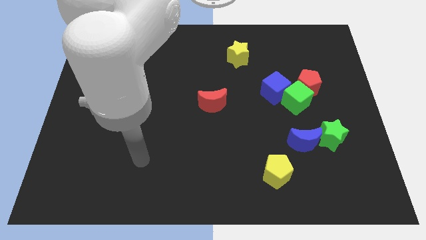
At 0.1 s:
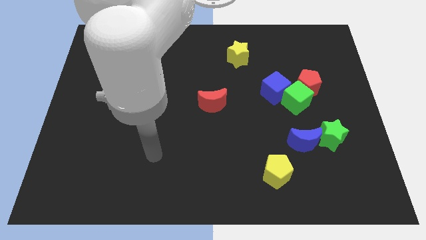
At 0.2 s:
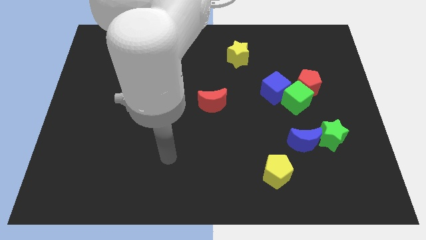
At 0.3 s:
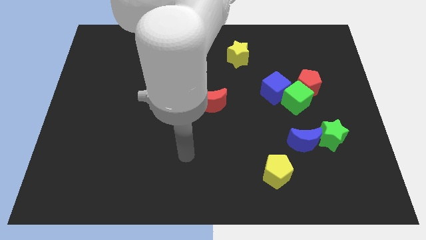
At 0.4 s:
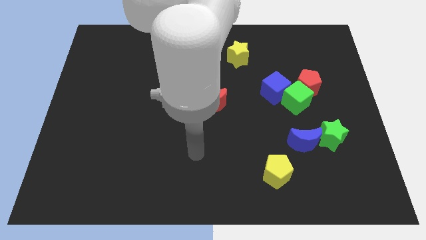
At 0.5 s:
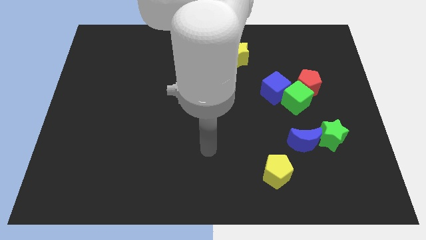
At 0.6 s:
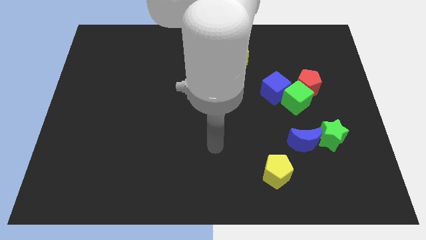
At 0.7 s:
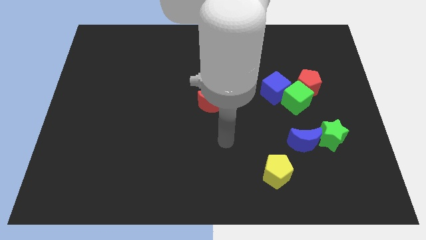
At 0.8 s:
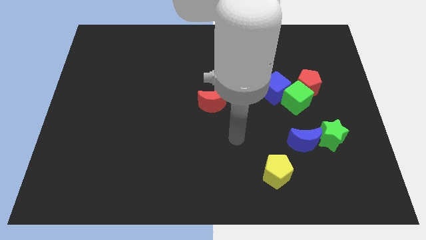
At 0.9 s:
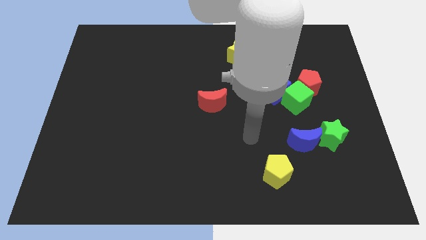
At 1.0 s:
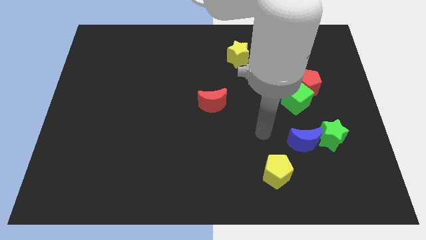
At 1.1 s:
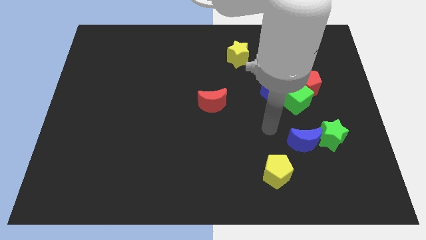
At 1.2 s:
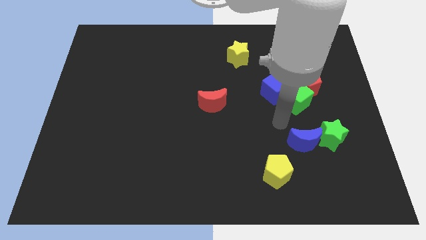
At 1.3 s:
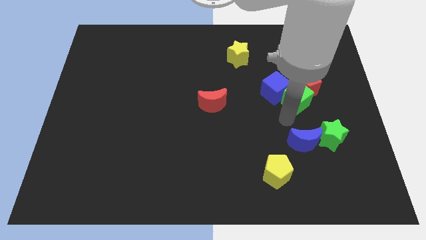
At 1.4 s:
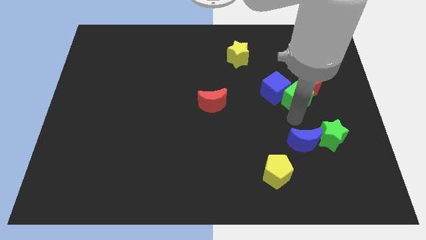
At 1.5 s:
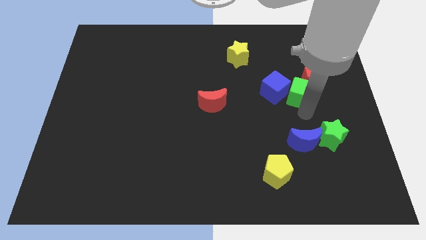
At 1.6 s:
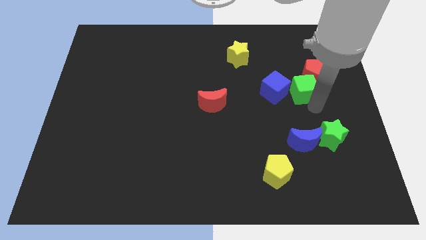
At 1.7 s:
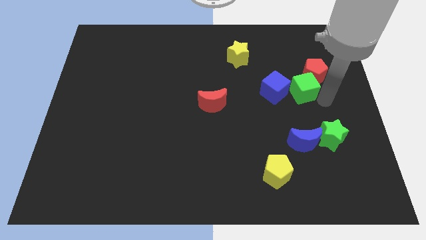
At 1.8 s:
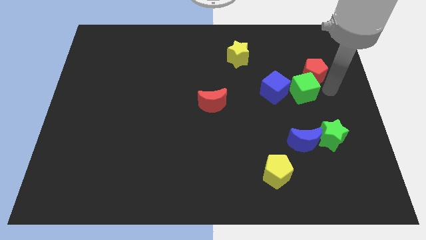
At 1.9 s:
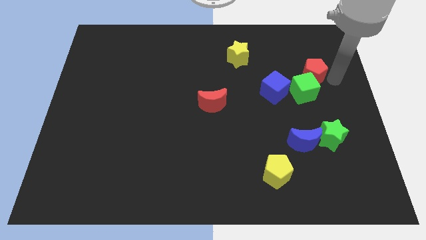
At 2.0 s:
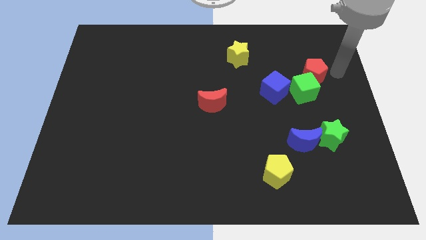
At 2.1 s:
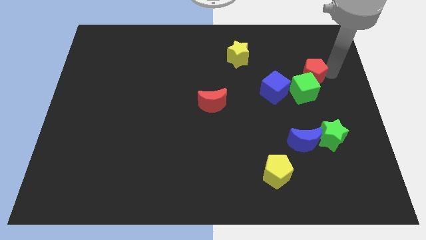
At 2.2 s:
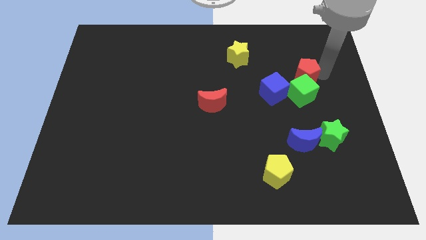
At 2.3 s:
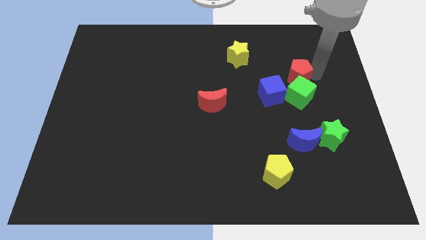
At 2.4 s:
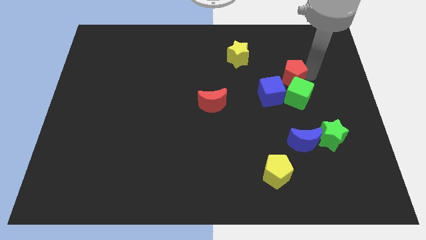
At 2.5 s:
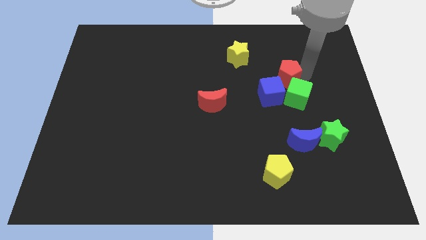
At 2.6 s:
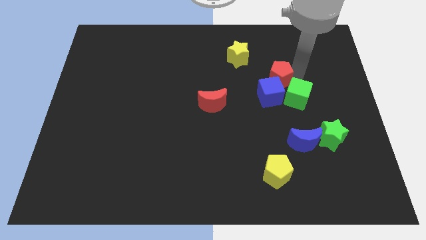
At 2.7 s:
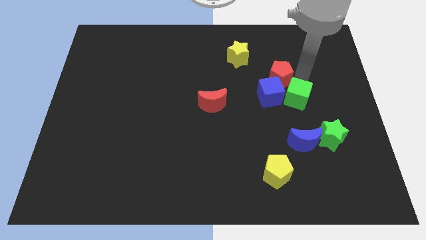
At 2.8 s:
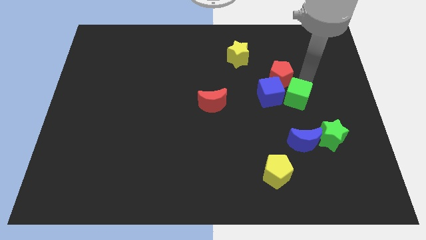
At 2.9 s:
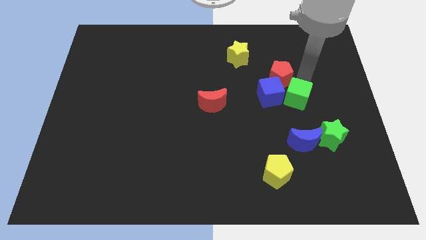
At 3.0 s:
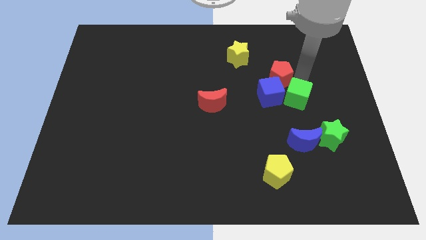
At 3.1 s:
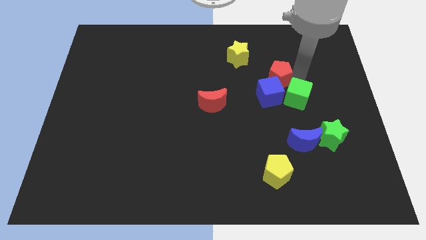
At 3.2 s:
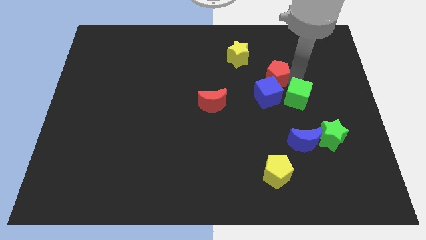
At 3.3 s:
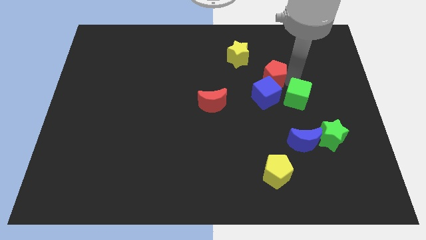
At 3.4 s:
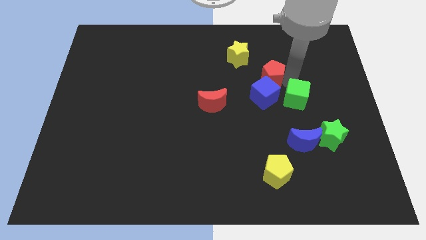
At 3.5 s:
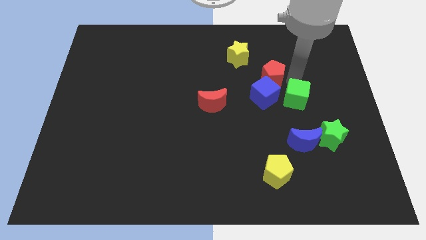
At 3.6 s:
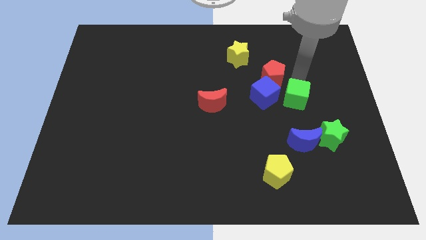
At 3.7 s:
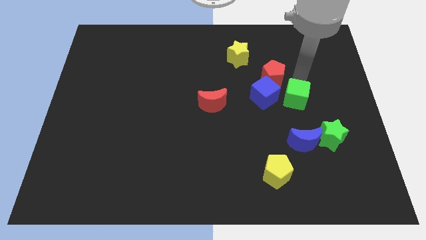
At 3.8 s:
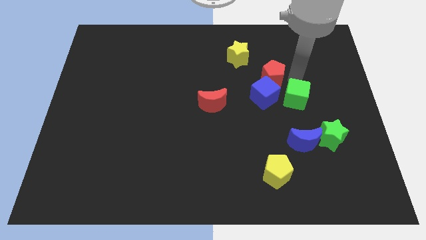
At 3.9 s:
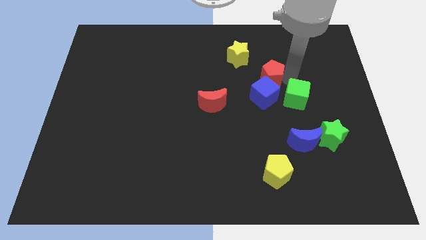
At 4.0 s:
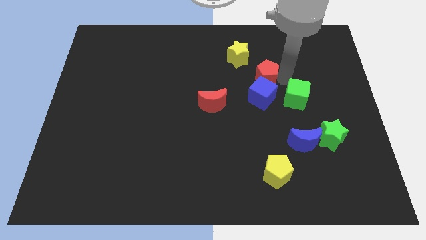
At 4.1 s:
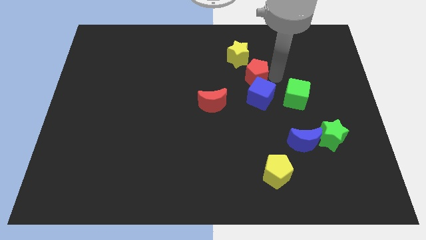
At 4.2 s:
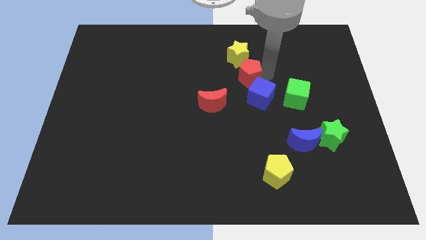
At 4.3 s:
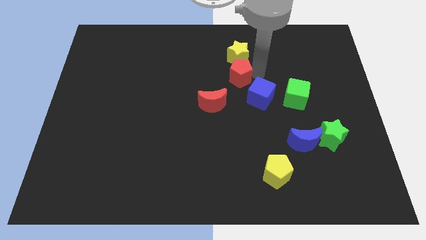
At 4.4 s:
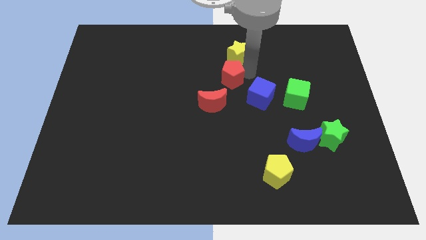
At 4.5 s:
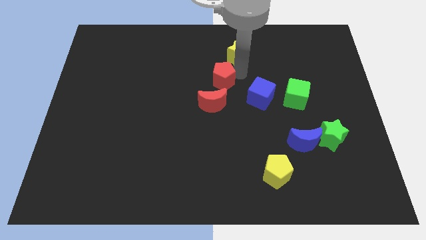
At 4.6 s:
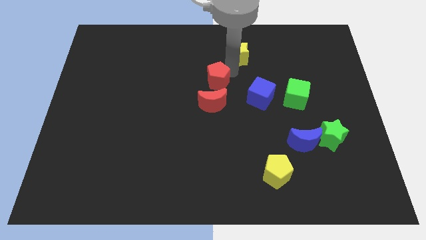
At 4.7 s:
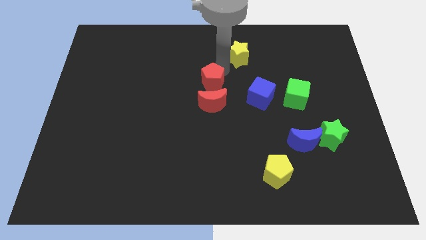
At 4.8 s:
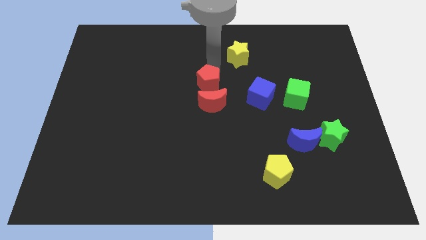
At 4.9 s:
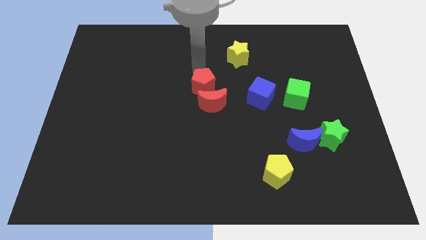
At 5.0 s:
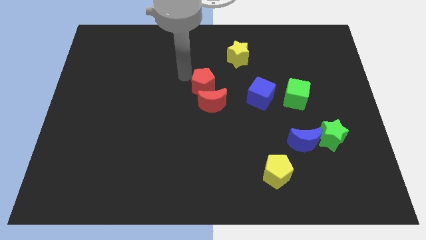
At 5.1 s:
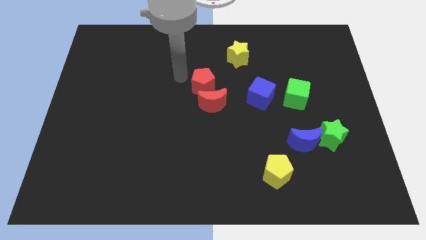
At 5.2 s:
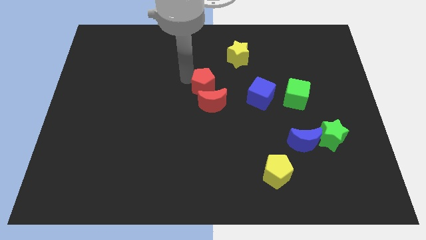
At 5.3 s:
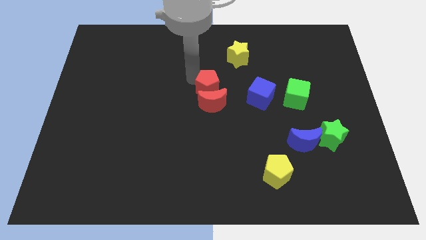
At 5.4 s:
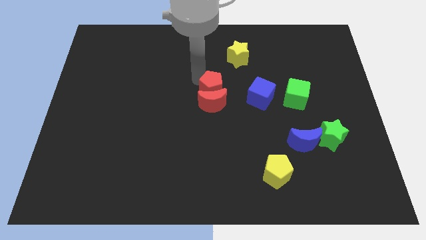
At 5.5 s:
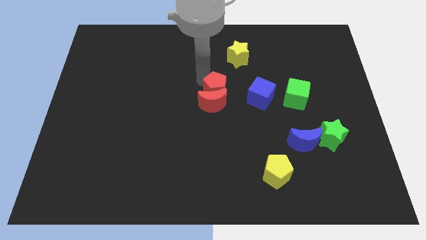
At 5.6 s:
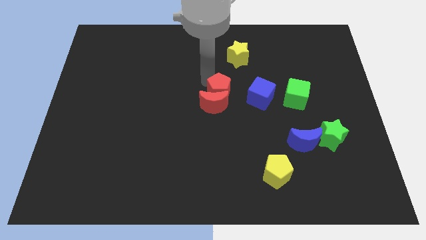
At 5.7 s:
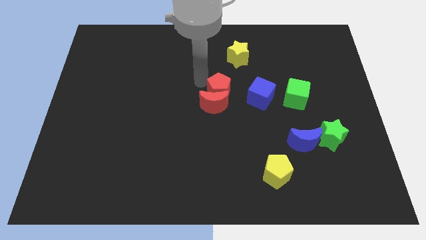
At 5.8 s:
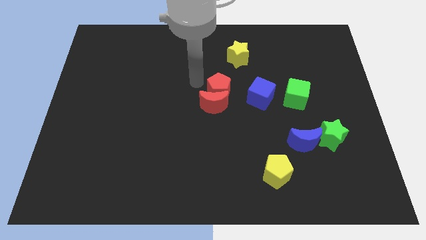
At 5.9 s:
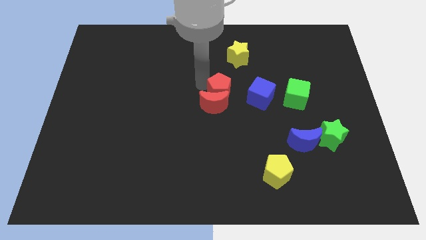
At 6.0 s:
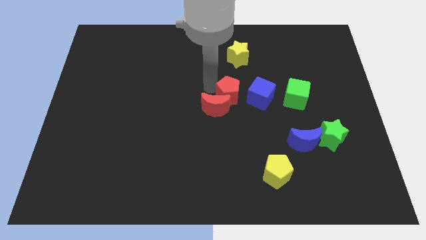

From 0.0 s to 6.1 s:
put the red pentagon just right of the red moon
